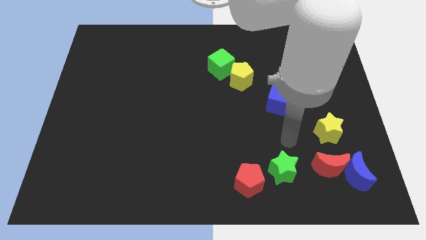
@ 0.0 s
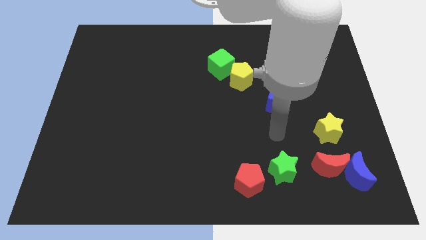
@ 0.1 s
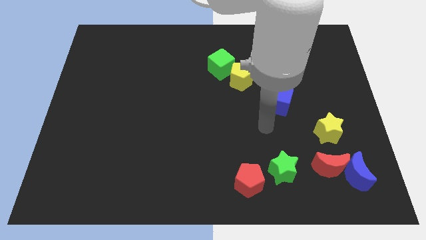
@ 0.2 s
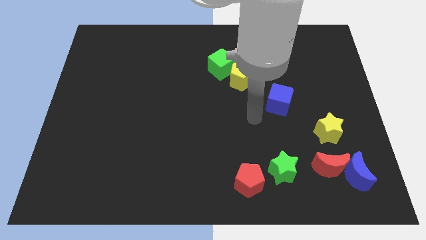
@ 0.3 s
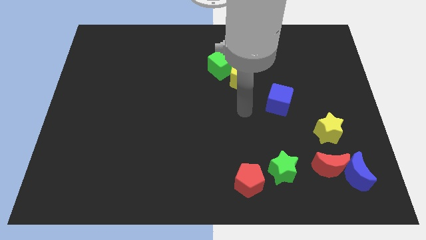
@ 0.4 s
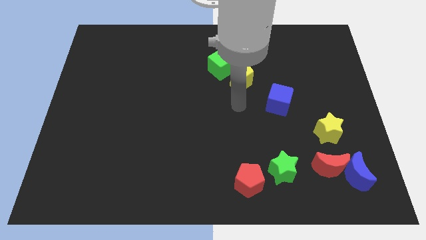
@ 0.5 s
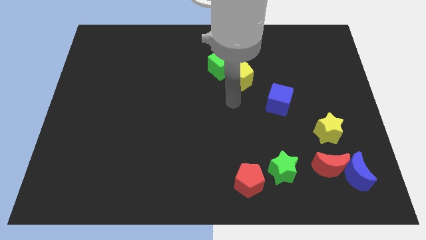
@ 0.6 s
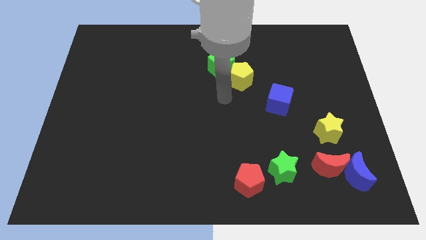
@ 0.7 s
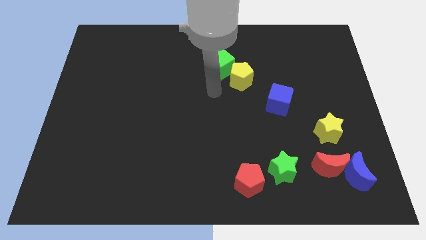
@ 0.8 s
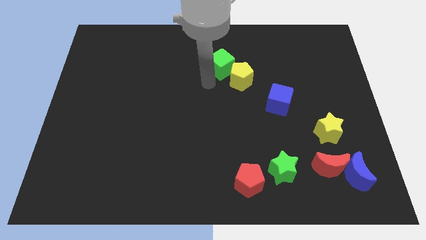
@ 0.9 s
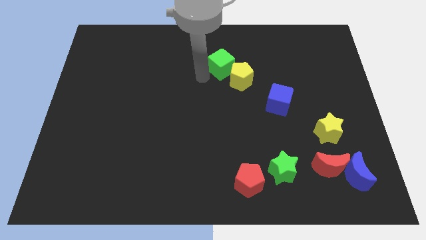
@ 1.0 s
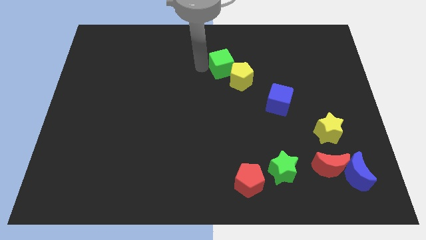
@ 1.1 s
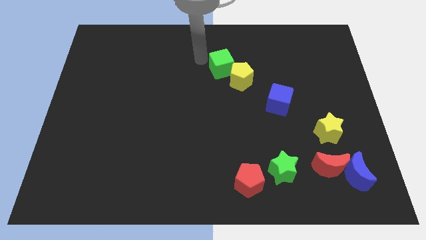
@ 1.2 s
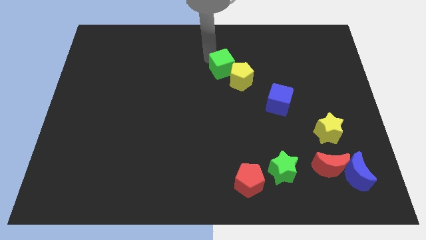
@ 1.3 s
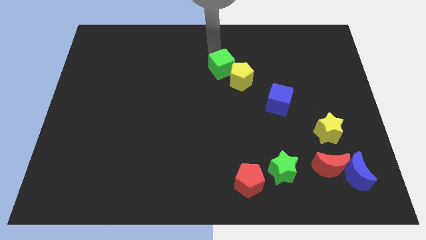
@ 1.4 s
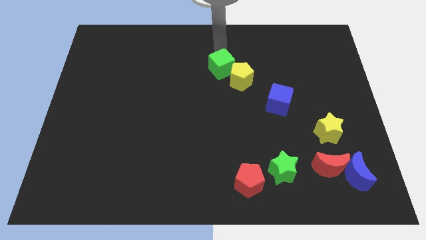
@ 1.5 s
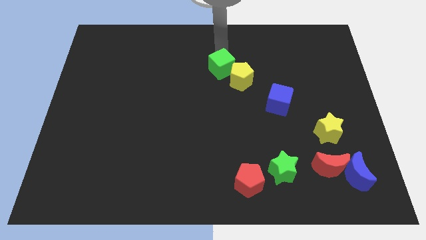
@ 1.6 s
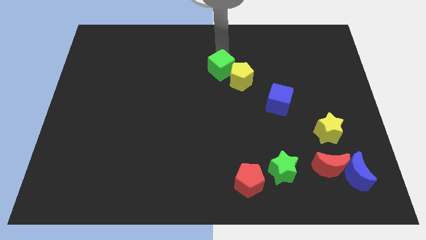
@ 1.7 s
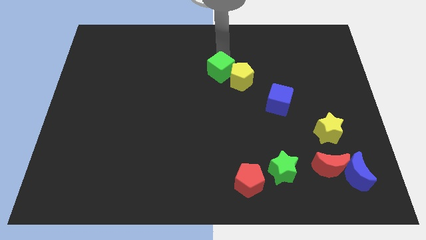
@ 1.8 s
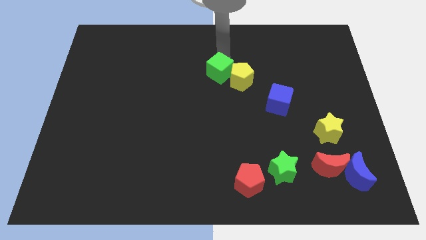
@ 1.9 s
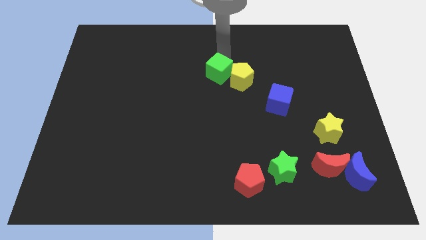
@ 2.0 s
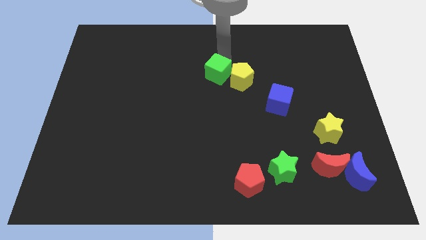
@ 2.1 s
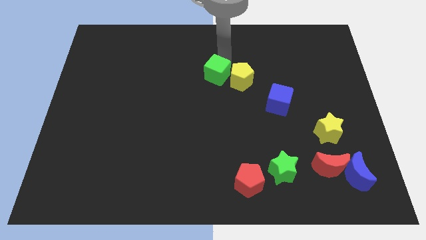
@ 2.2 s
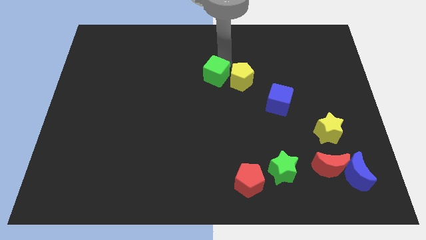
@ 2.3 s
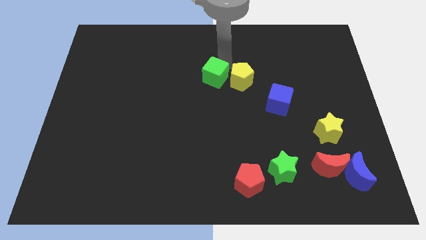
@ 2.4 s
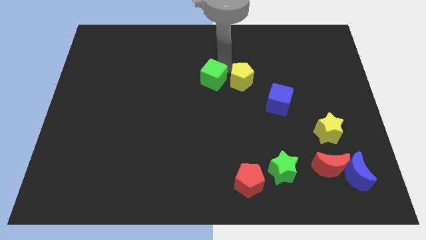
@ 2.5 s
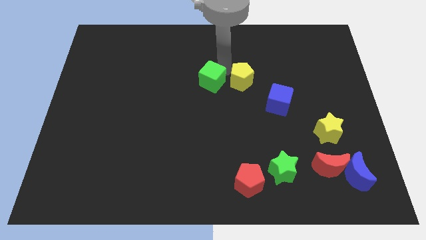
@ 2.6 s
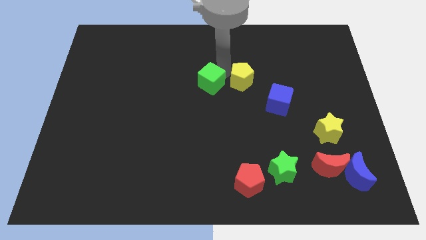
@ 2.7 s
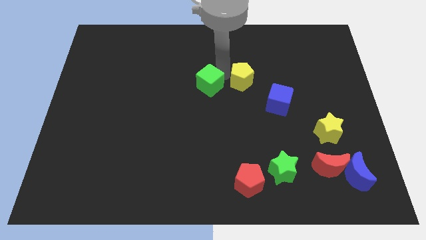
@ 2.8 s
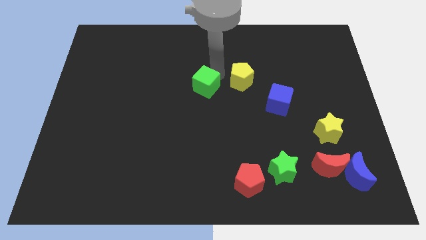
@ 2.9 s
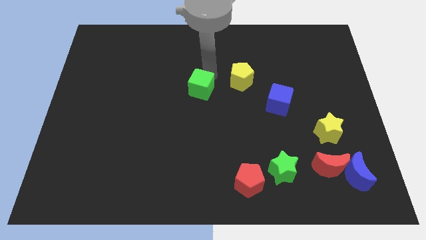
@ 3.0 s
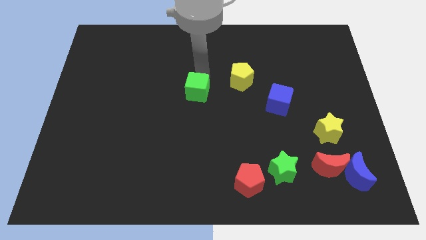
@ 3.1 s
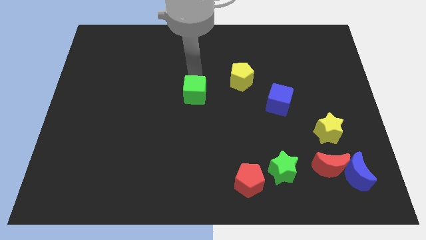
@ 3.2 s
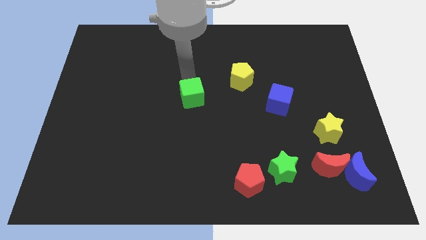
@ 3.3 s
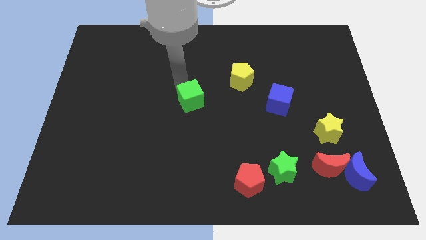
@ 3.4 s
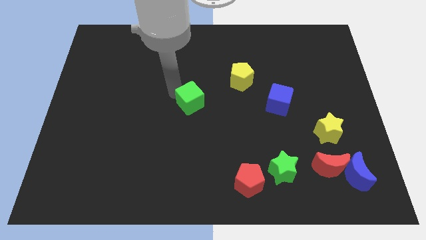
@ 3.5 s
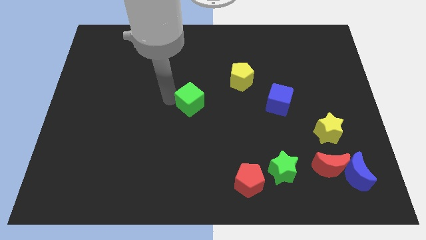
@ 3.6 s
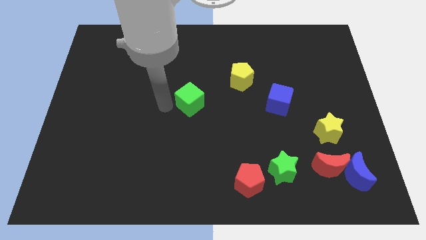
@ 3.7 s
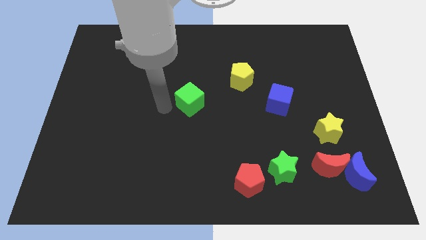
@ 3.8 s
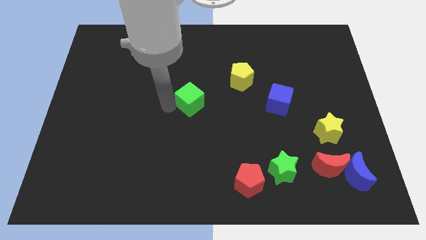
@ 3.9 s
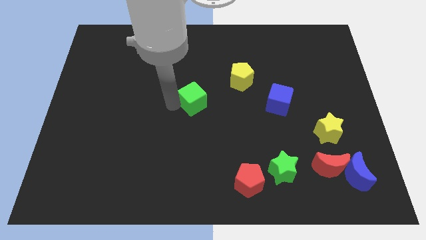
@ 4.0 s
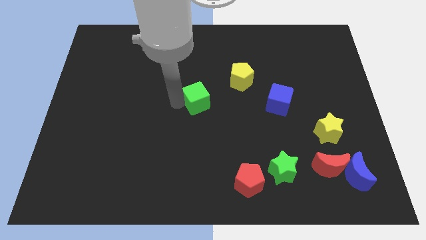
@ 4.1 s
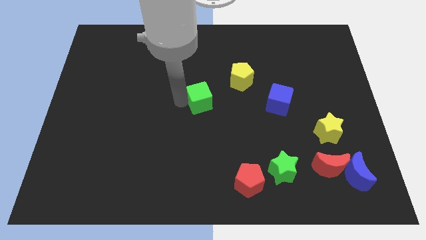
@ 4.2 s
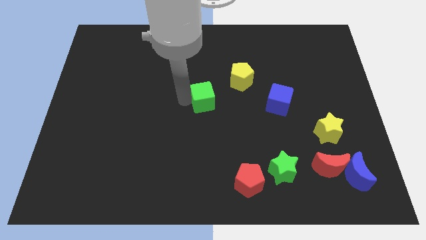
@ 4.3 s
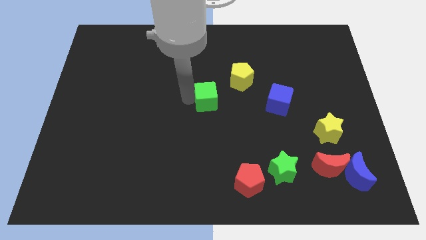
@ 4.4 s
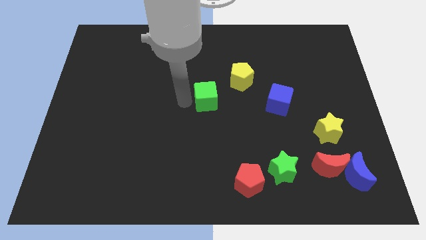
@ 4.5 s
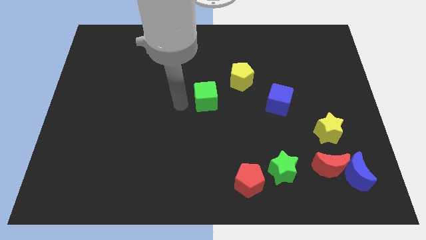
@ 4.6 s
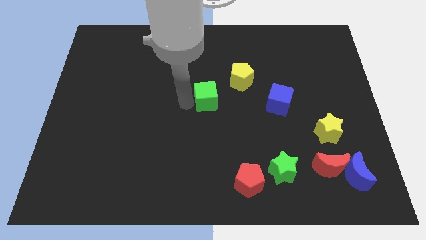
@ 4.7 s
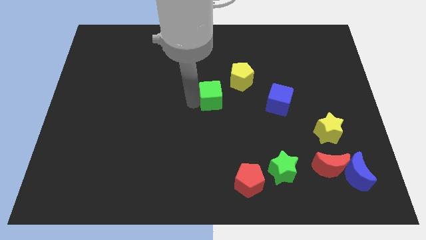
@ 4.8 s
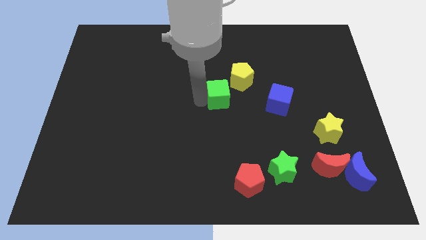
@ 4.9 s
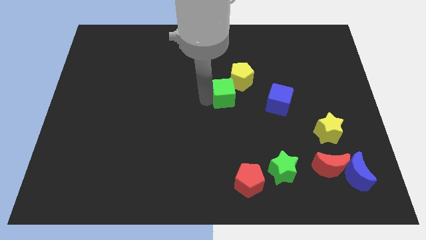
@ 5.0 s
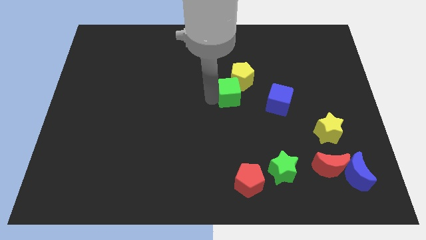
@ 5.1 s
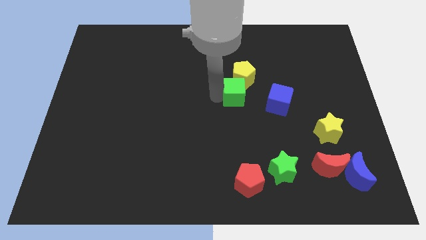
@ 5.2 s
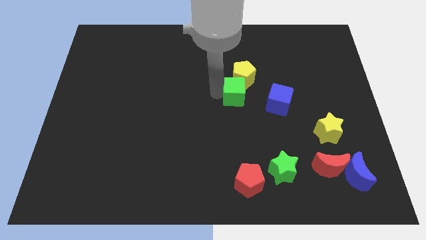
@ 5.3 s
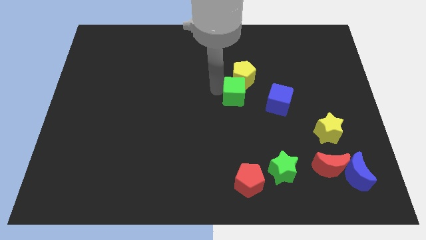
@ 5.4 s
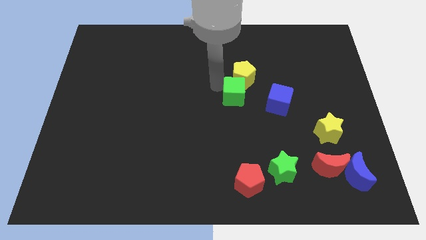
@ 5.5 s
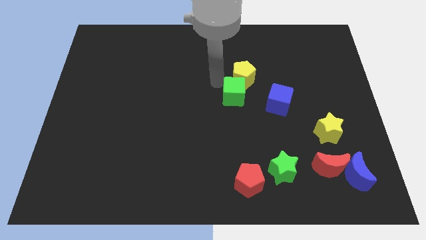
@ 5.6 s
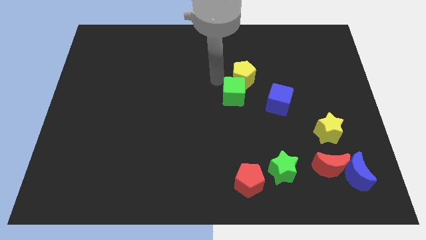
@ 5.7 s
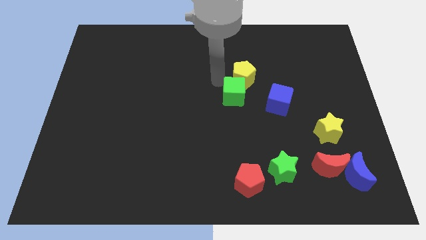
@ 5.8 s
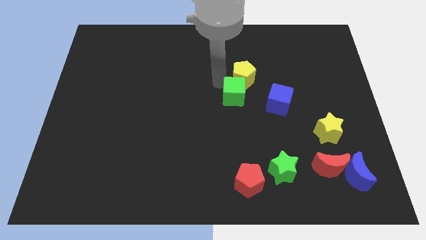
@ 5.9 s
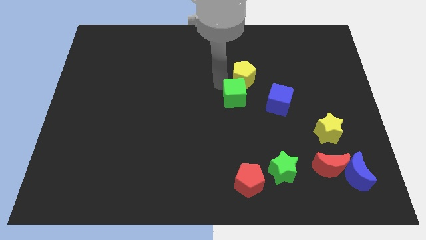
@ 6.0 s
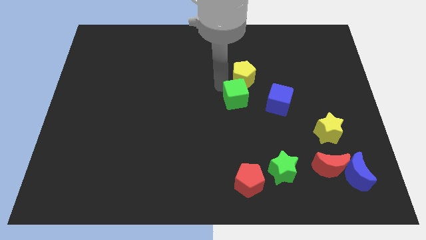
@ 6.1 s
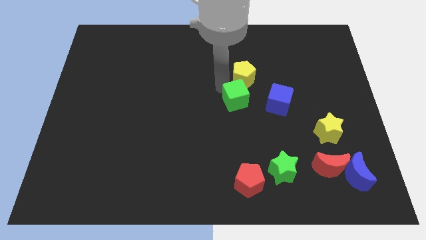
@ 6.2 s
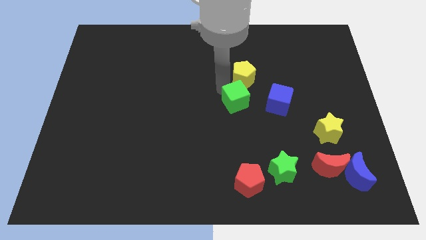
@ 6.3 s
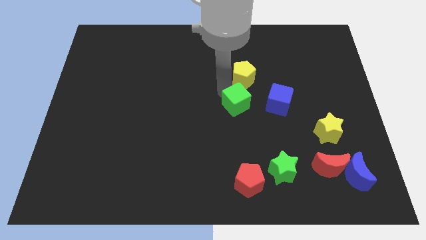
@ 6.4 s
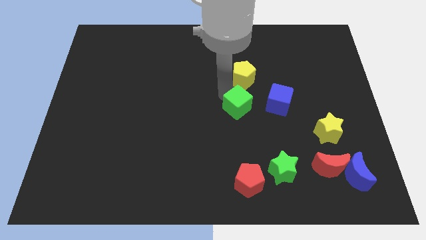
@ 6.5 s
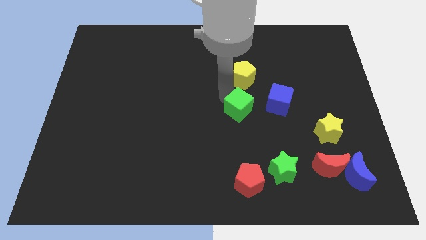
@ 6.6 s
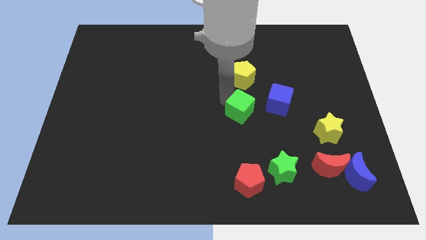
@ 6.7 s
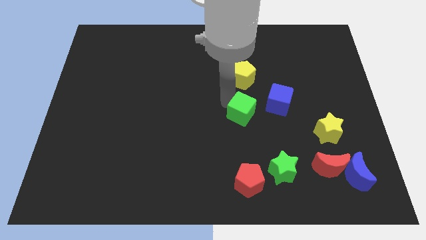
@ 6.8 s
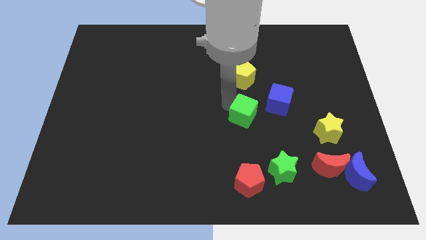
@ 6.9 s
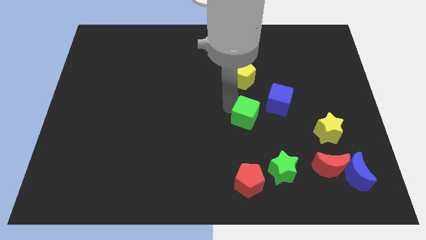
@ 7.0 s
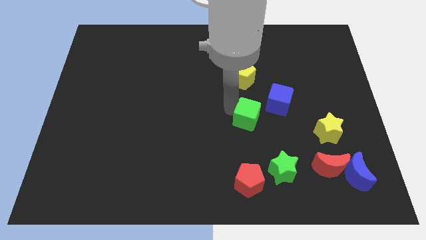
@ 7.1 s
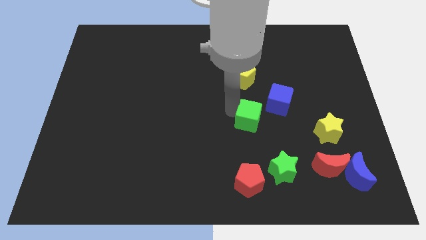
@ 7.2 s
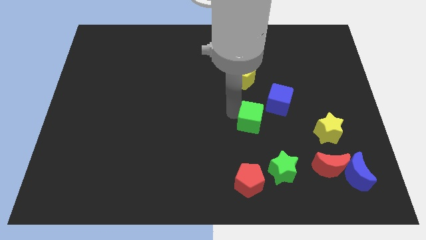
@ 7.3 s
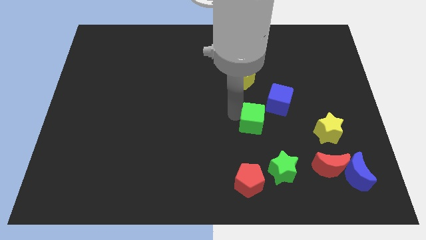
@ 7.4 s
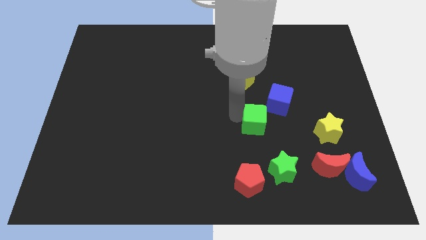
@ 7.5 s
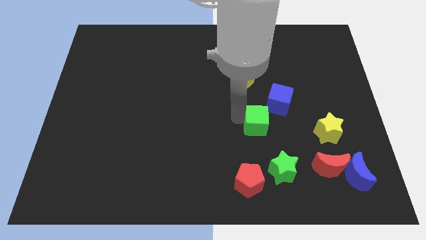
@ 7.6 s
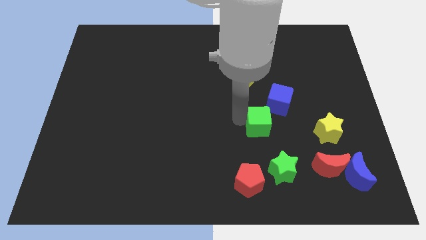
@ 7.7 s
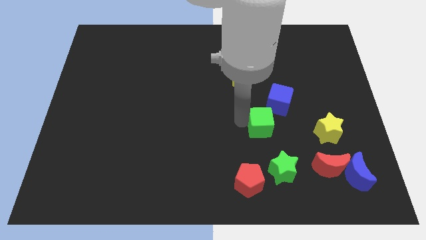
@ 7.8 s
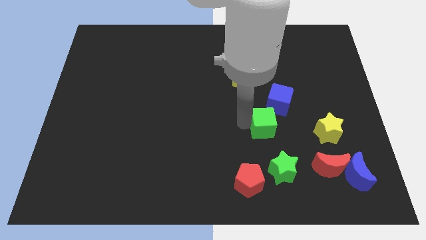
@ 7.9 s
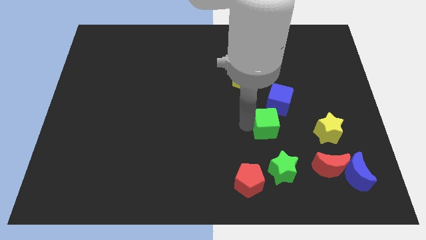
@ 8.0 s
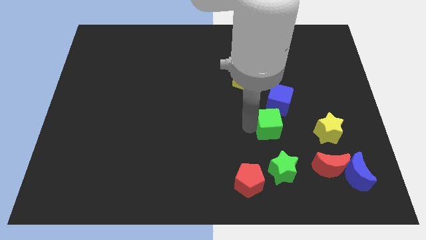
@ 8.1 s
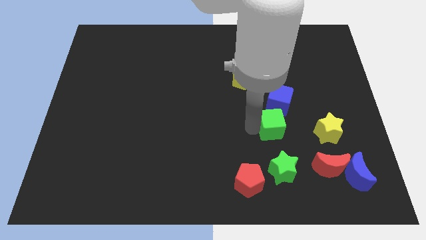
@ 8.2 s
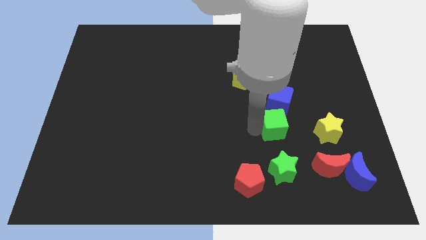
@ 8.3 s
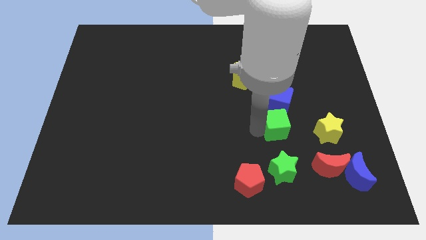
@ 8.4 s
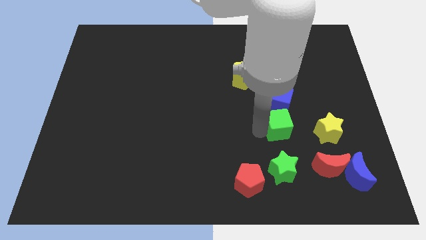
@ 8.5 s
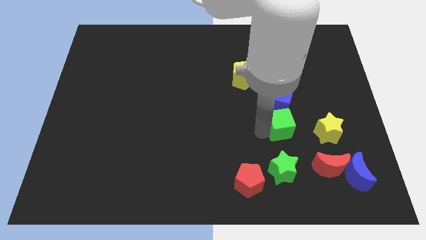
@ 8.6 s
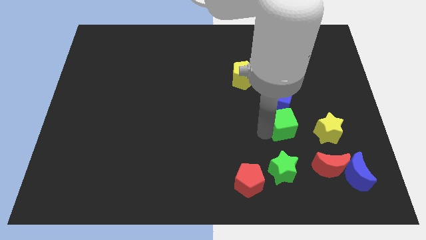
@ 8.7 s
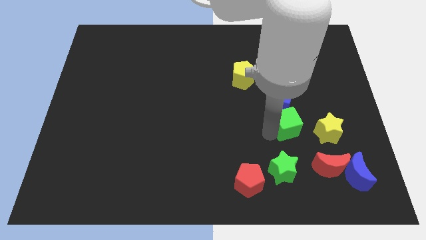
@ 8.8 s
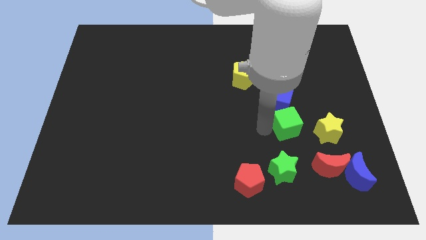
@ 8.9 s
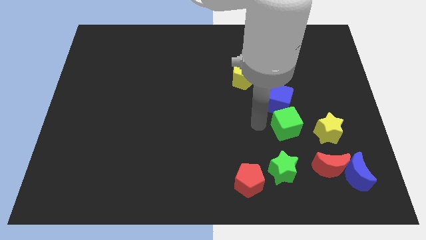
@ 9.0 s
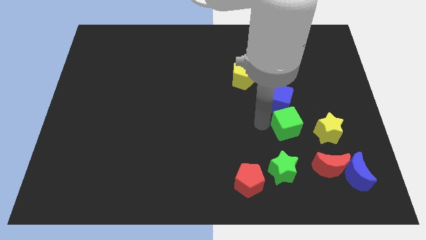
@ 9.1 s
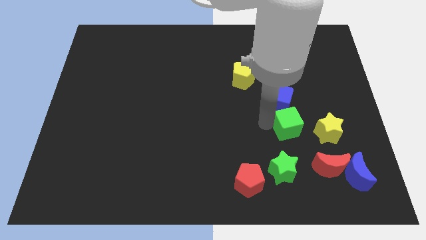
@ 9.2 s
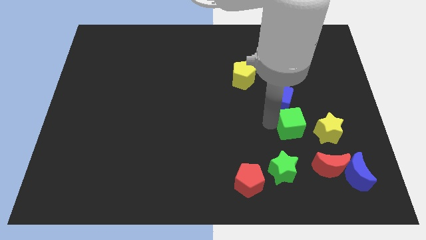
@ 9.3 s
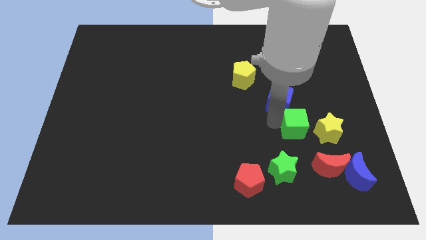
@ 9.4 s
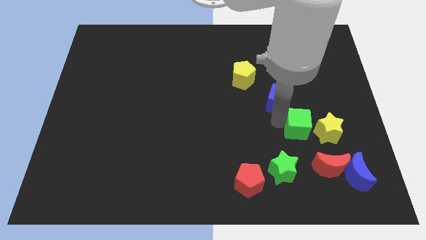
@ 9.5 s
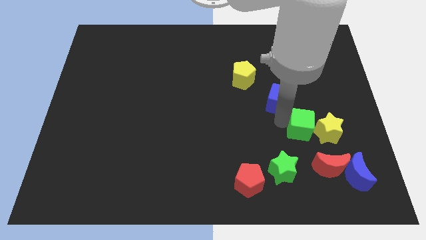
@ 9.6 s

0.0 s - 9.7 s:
slide the green cube close to the yellow star
